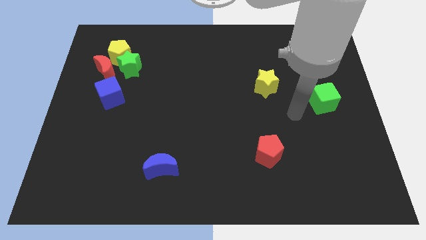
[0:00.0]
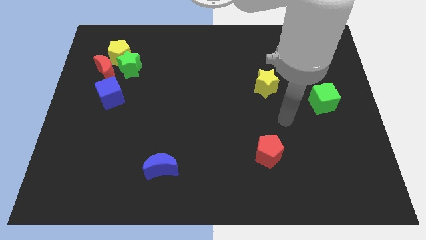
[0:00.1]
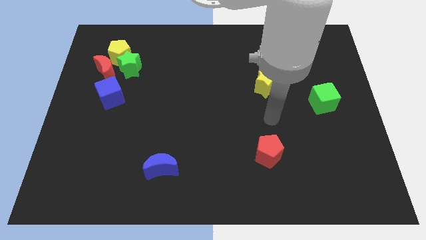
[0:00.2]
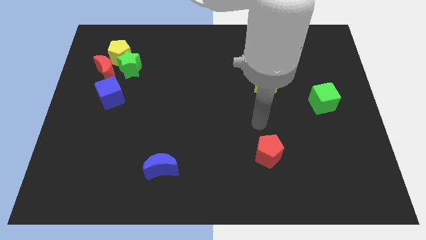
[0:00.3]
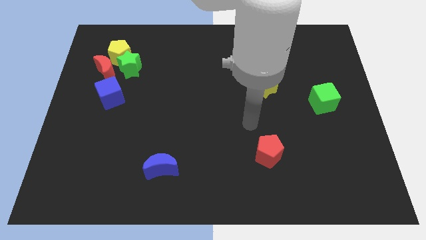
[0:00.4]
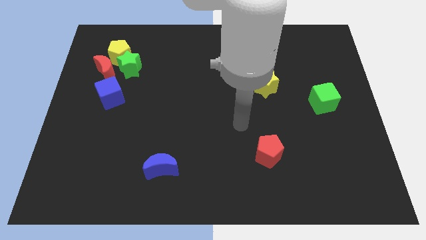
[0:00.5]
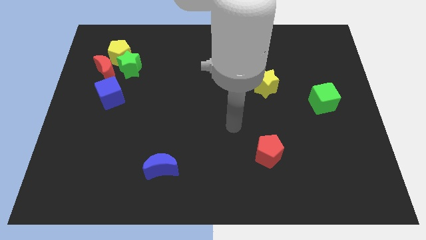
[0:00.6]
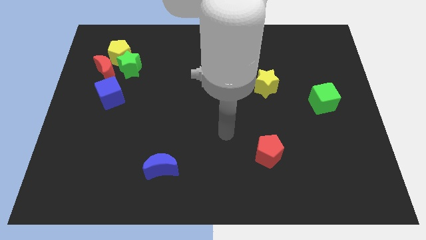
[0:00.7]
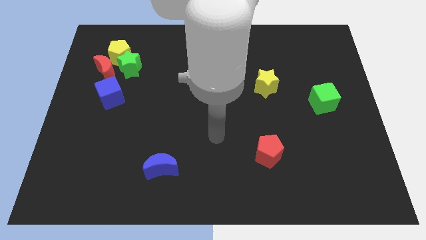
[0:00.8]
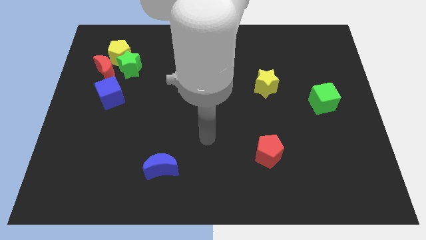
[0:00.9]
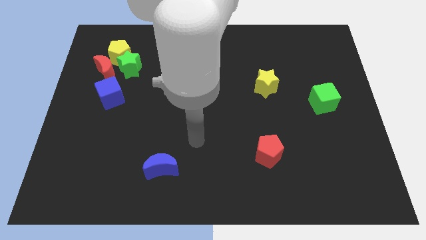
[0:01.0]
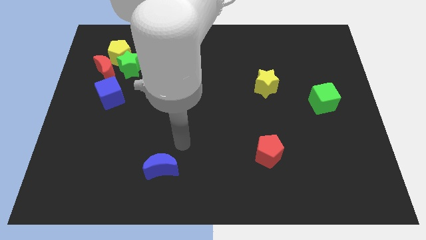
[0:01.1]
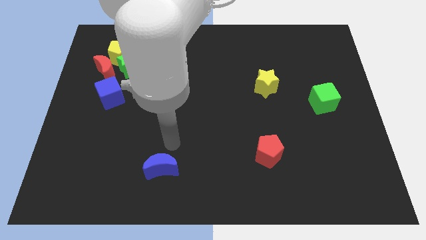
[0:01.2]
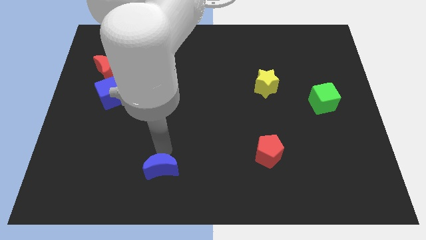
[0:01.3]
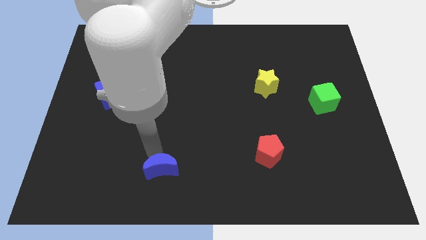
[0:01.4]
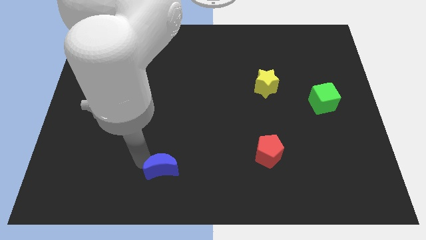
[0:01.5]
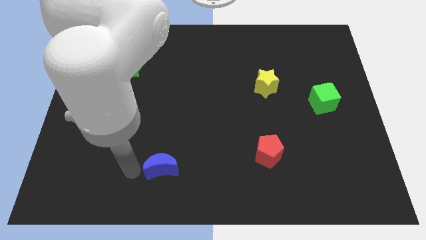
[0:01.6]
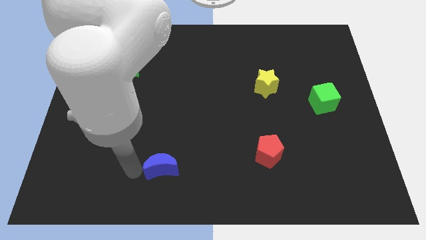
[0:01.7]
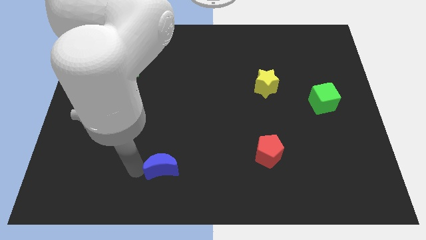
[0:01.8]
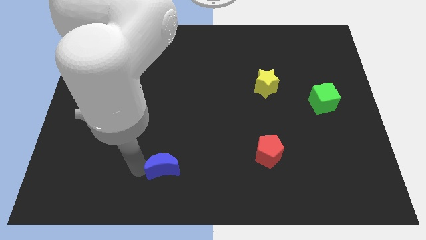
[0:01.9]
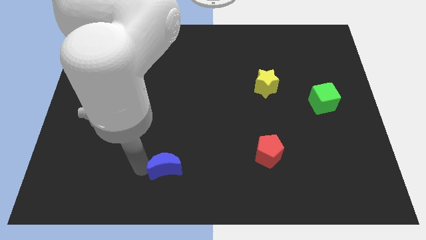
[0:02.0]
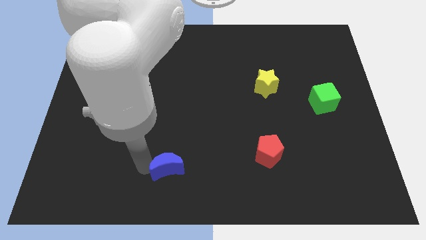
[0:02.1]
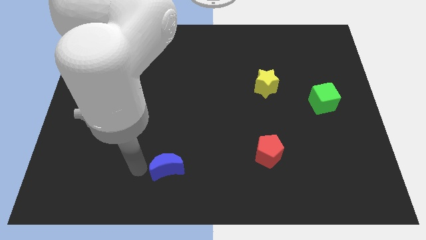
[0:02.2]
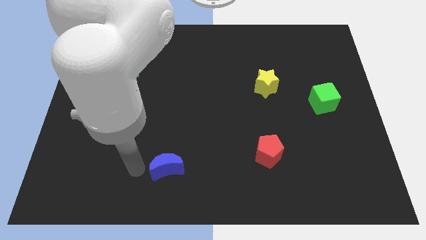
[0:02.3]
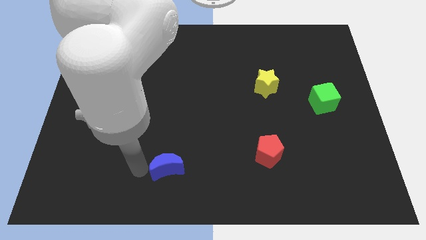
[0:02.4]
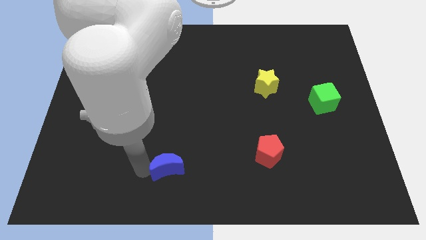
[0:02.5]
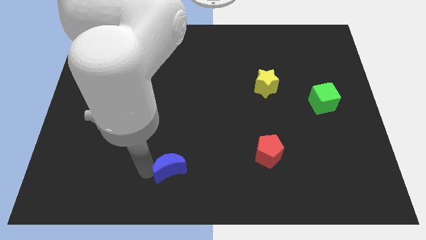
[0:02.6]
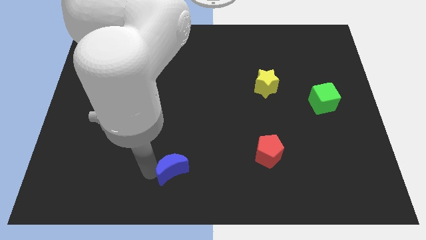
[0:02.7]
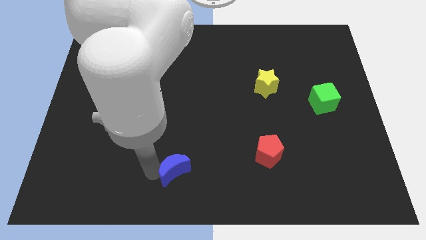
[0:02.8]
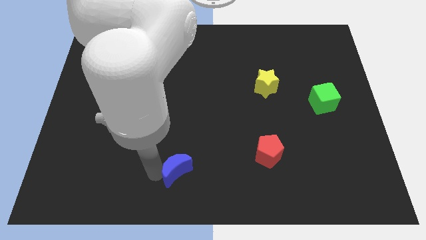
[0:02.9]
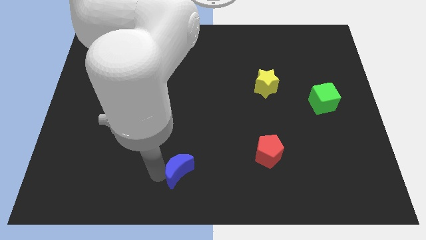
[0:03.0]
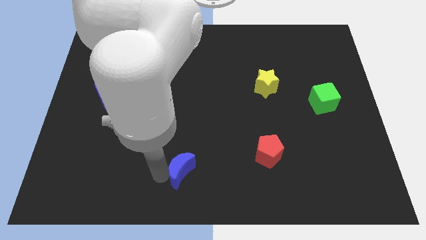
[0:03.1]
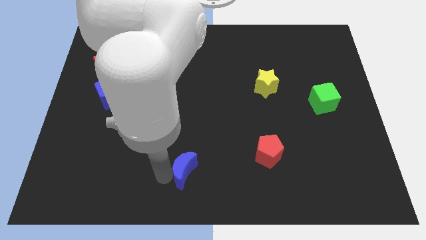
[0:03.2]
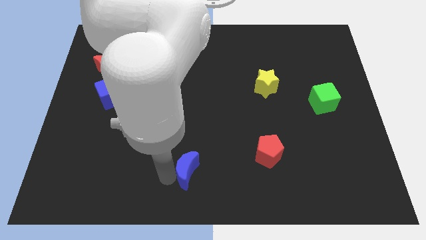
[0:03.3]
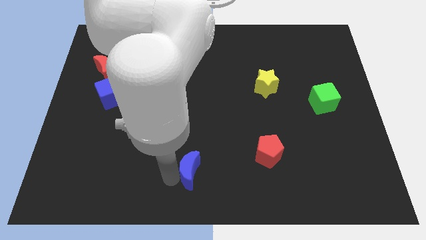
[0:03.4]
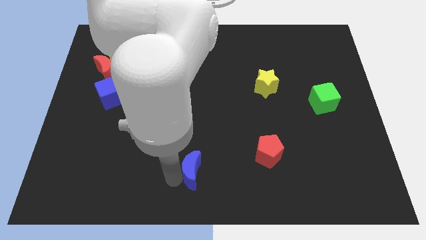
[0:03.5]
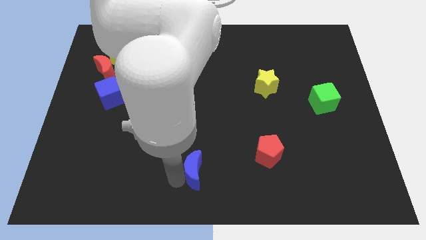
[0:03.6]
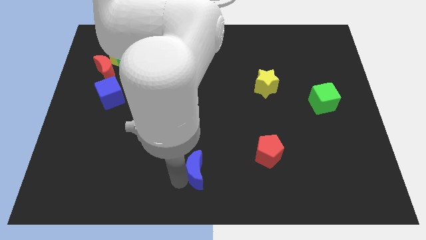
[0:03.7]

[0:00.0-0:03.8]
push the blue moon to the right a little bit

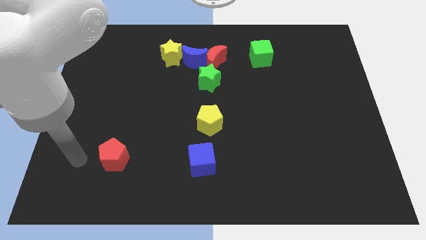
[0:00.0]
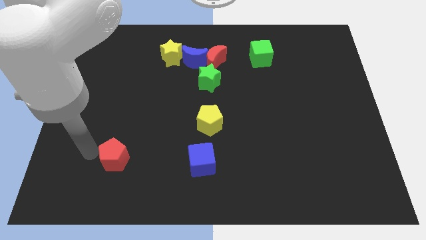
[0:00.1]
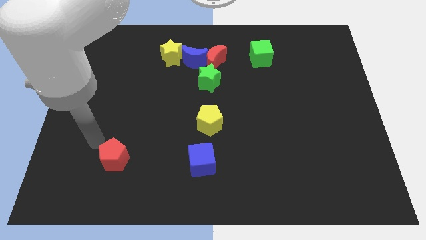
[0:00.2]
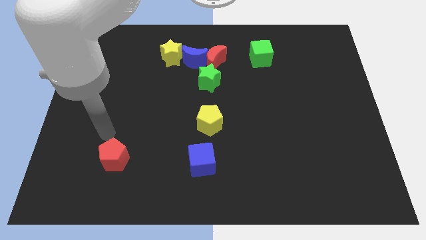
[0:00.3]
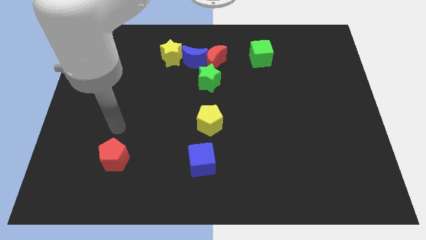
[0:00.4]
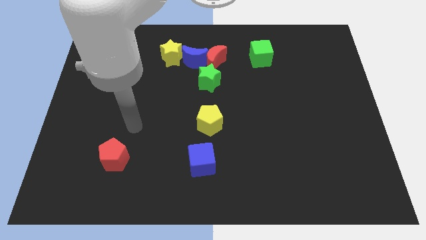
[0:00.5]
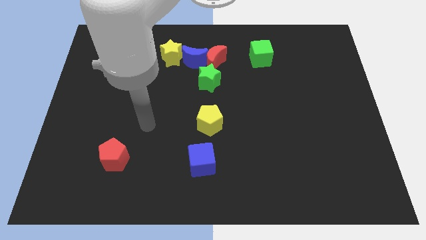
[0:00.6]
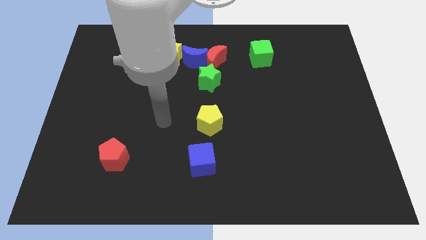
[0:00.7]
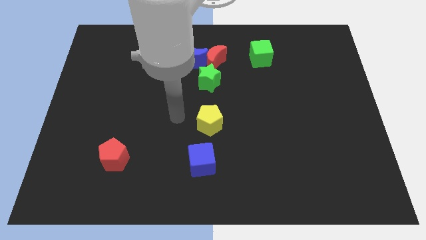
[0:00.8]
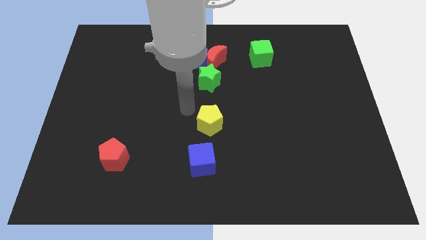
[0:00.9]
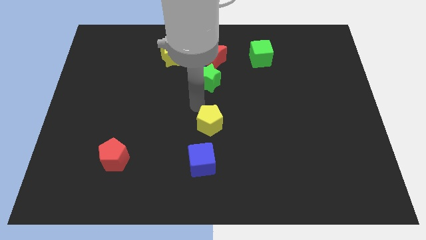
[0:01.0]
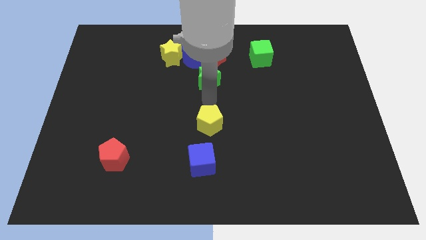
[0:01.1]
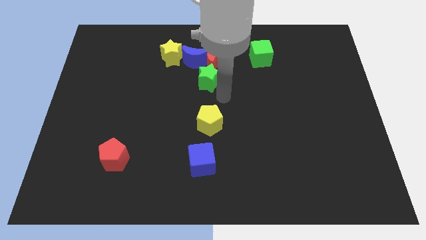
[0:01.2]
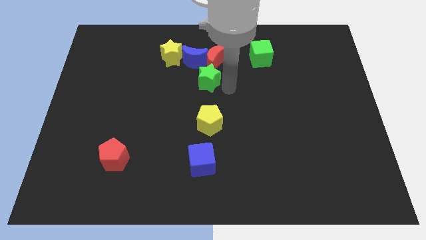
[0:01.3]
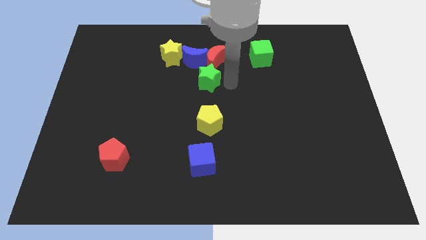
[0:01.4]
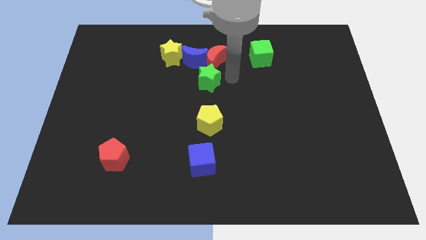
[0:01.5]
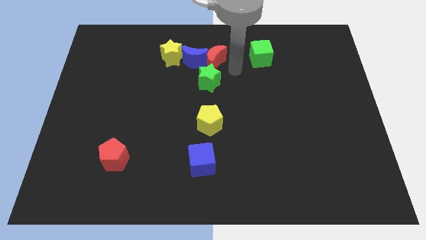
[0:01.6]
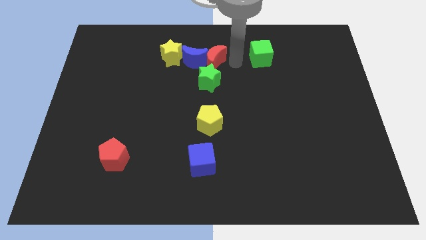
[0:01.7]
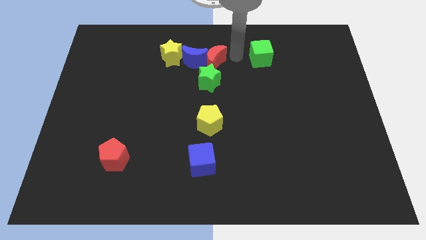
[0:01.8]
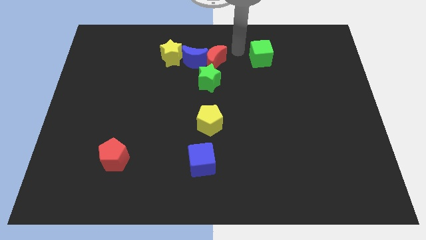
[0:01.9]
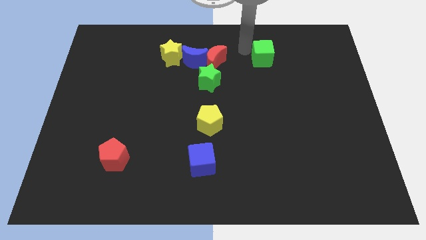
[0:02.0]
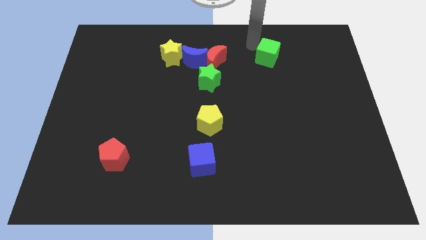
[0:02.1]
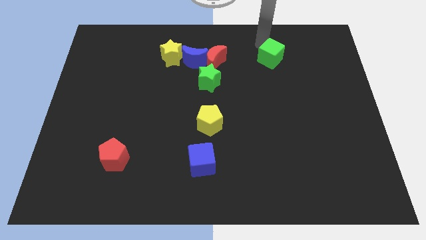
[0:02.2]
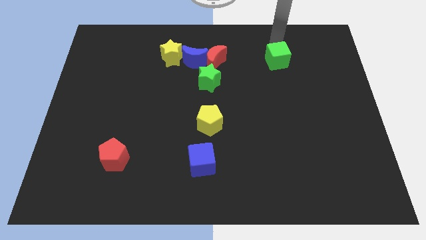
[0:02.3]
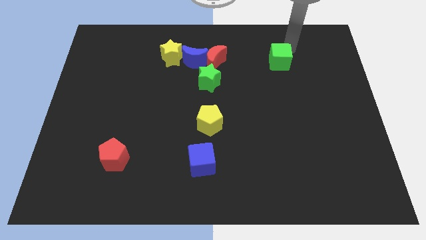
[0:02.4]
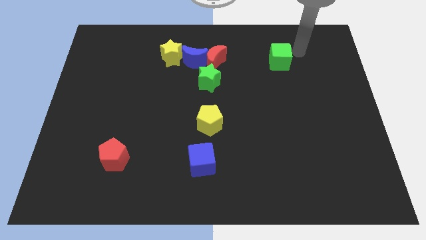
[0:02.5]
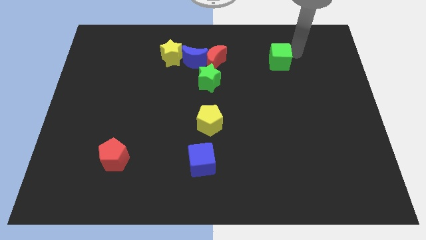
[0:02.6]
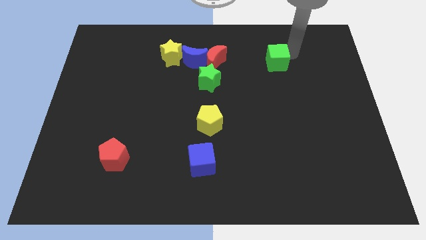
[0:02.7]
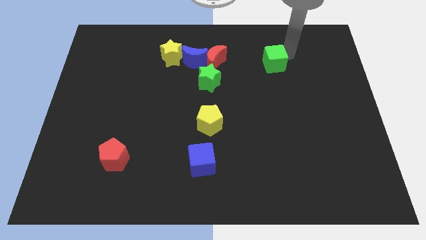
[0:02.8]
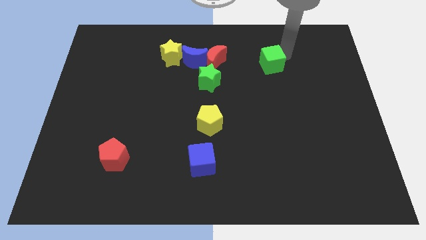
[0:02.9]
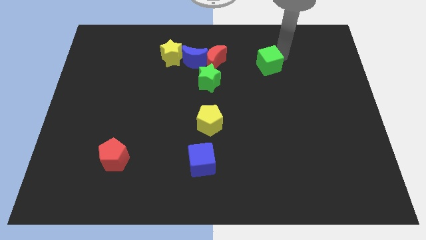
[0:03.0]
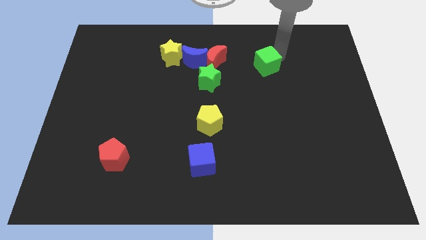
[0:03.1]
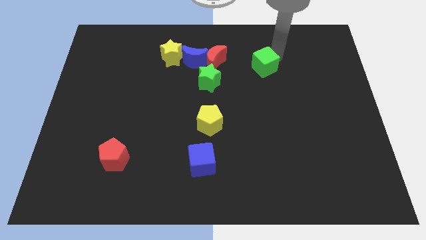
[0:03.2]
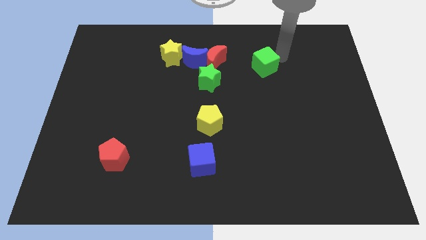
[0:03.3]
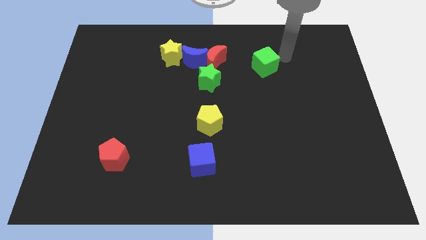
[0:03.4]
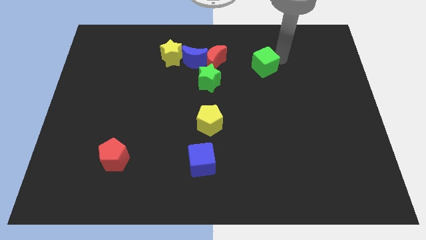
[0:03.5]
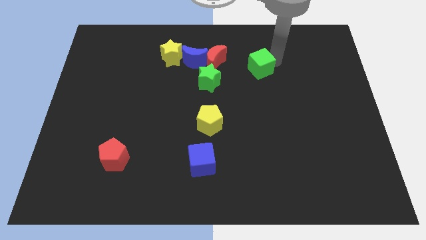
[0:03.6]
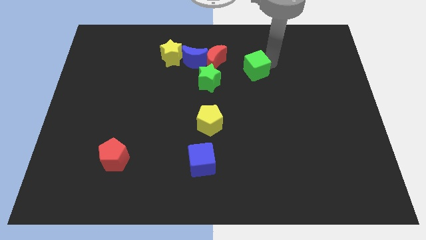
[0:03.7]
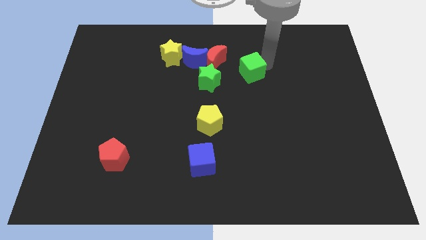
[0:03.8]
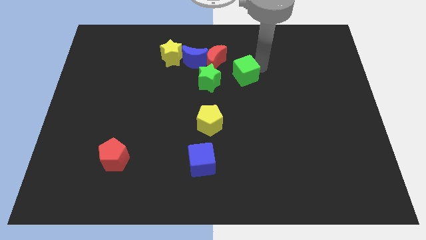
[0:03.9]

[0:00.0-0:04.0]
slightly slide the green cube diagonally down and left

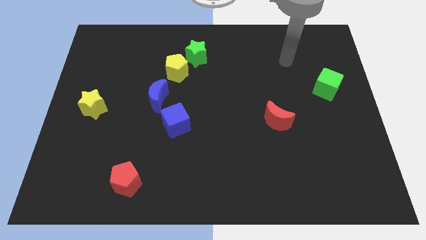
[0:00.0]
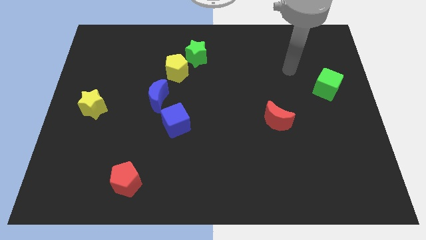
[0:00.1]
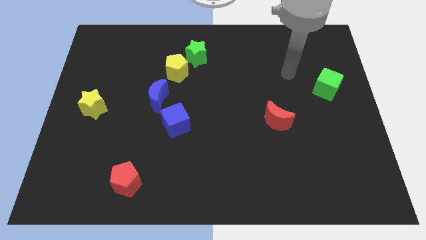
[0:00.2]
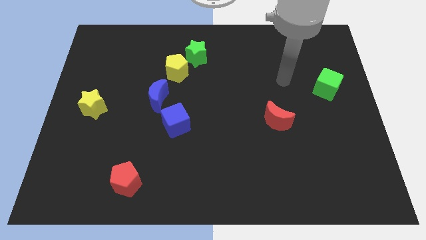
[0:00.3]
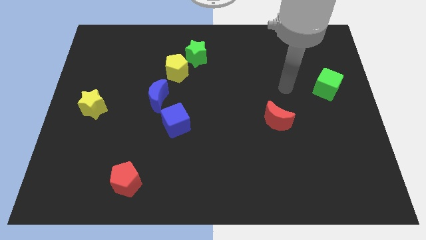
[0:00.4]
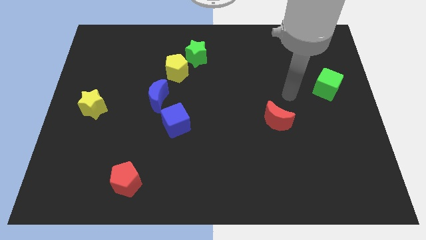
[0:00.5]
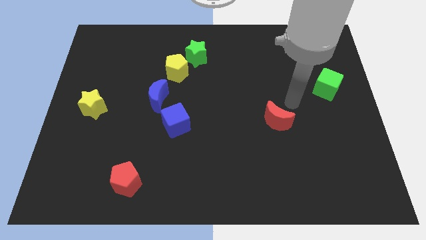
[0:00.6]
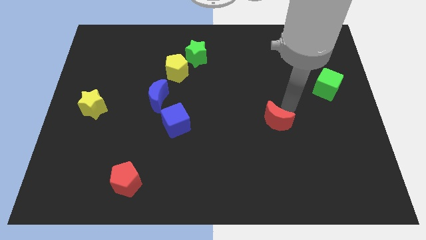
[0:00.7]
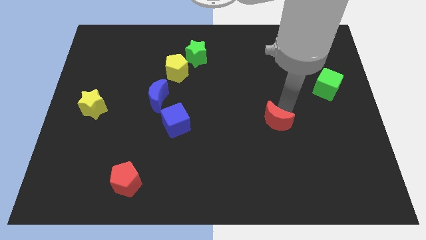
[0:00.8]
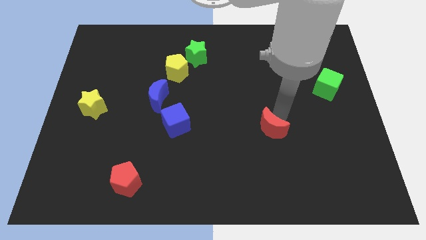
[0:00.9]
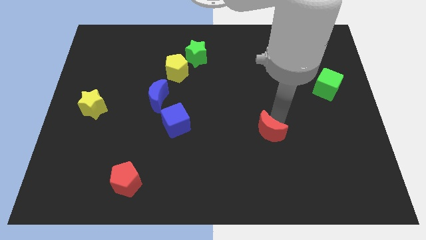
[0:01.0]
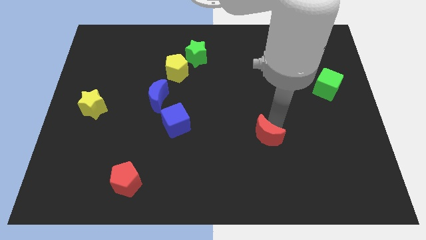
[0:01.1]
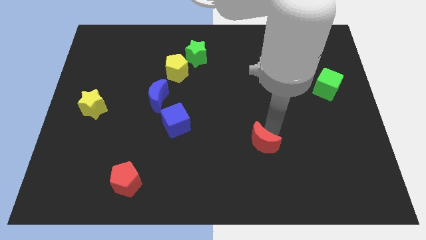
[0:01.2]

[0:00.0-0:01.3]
push the red moon a little bit down and left diagonally
